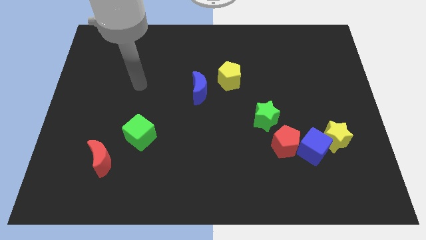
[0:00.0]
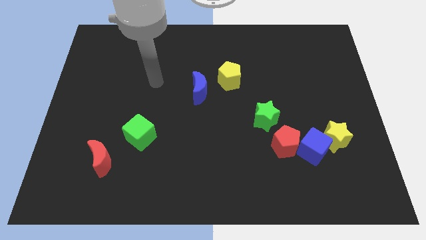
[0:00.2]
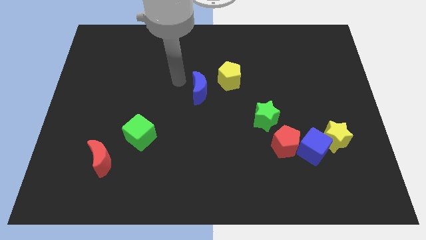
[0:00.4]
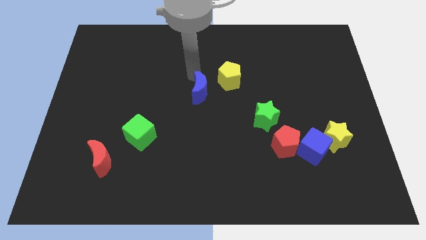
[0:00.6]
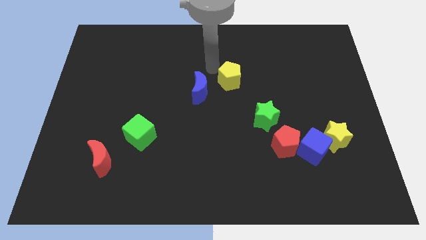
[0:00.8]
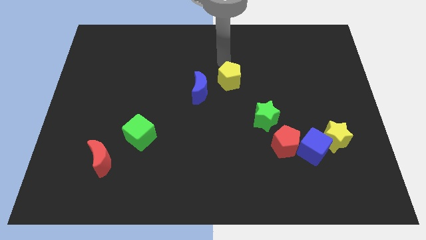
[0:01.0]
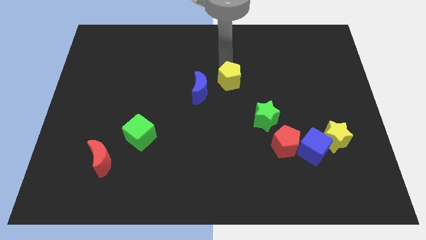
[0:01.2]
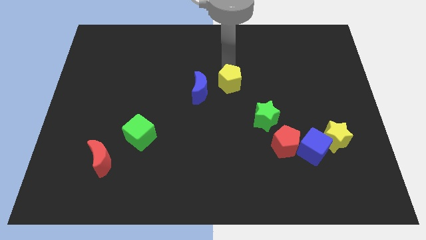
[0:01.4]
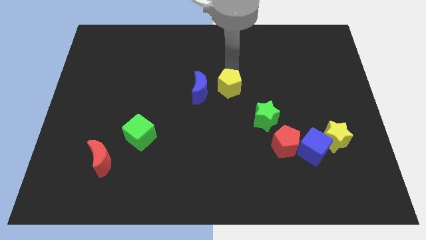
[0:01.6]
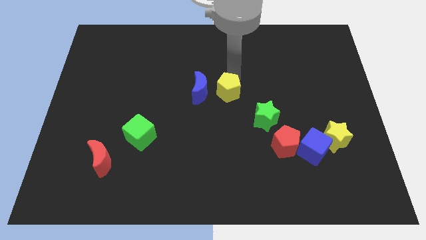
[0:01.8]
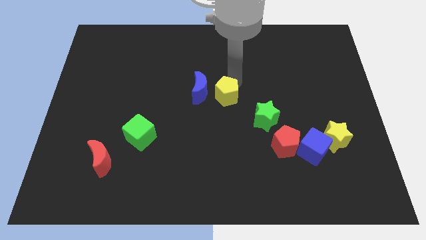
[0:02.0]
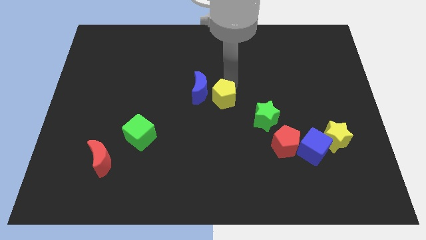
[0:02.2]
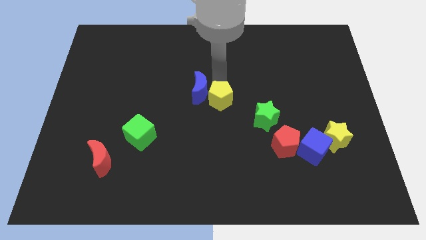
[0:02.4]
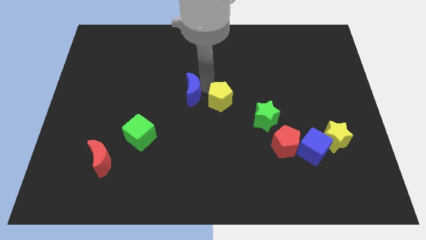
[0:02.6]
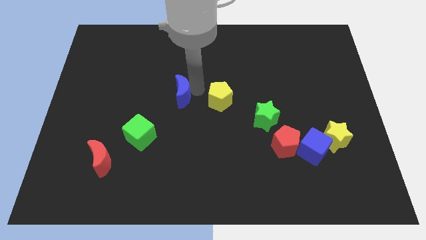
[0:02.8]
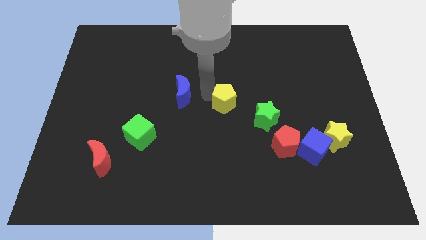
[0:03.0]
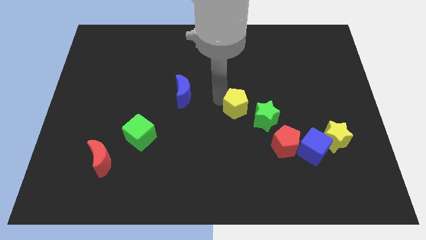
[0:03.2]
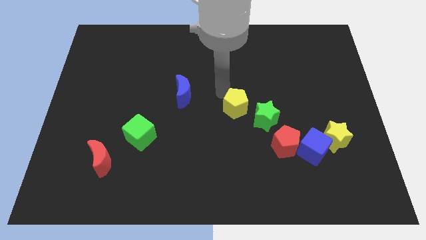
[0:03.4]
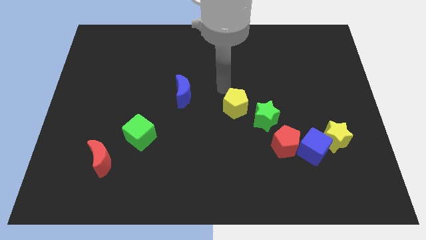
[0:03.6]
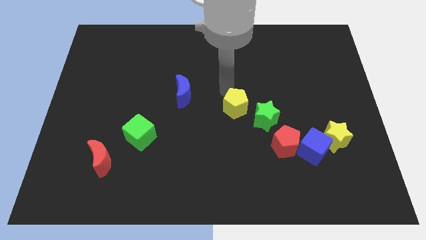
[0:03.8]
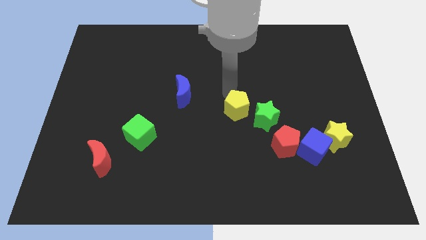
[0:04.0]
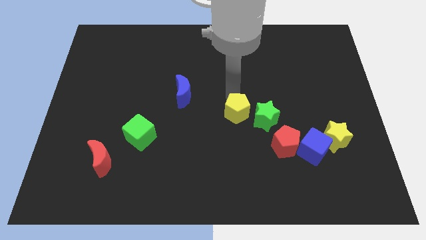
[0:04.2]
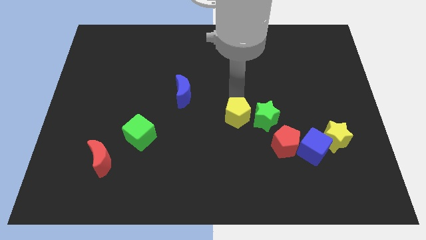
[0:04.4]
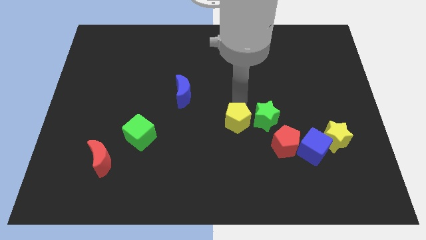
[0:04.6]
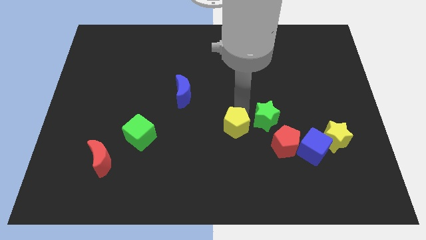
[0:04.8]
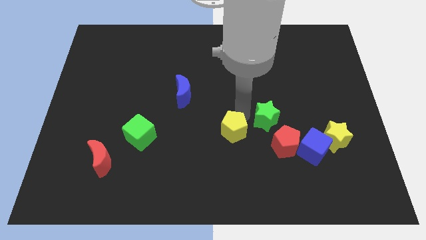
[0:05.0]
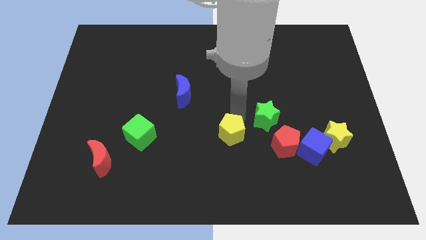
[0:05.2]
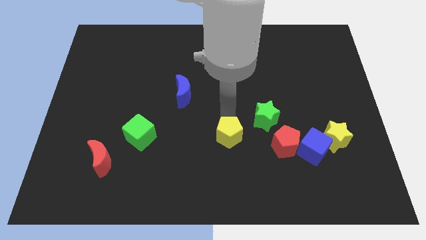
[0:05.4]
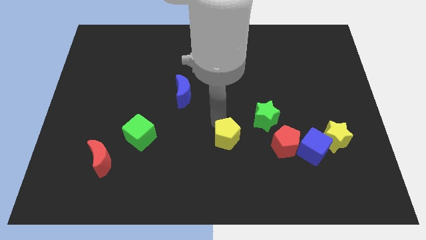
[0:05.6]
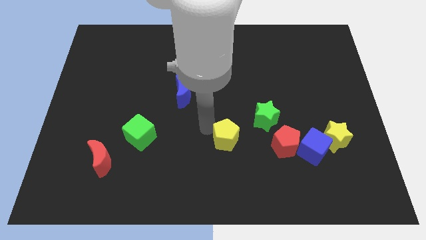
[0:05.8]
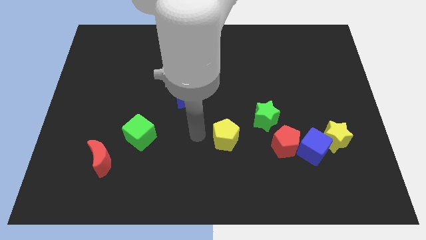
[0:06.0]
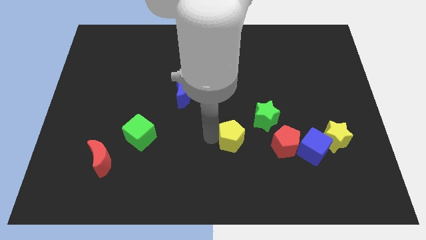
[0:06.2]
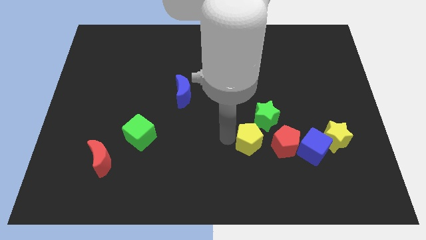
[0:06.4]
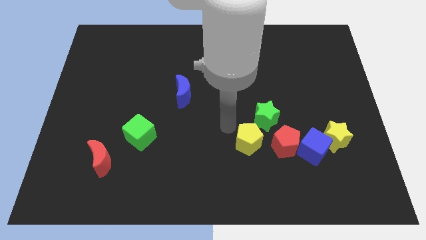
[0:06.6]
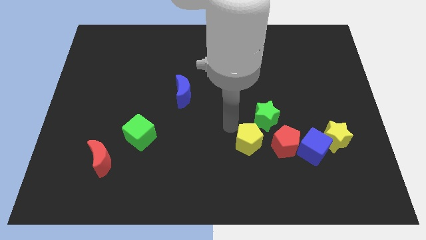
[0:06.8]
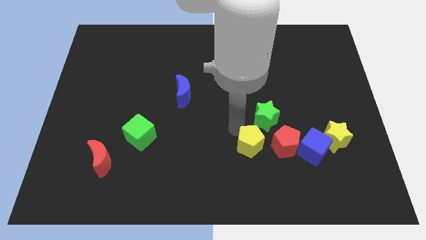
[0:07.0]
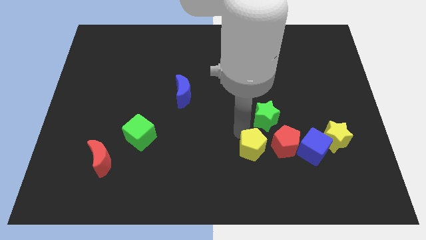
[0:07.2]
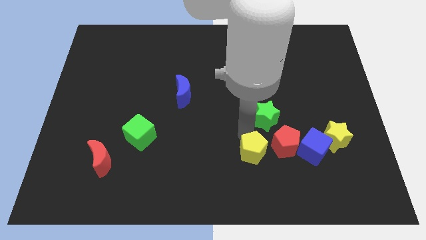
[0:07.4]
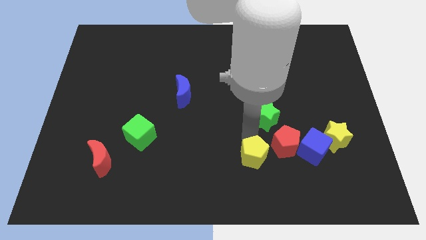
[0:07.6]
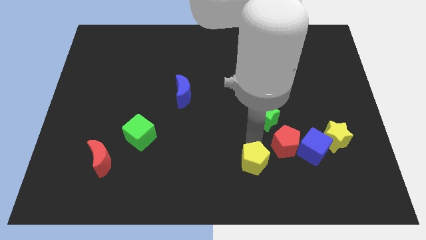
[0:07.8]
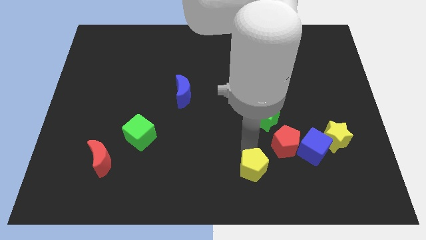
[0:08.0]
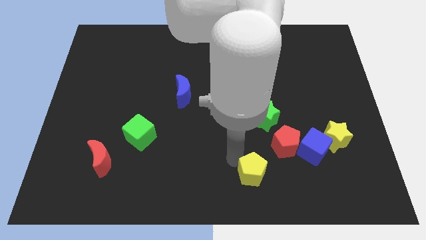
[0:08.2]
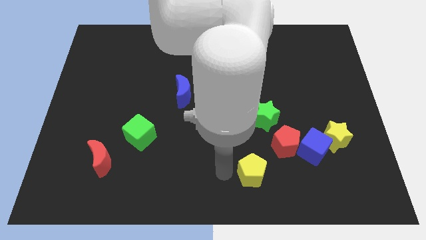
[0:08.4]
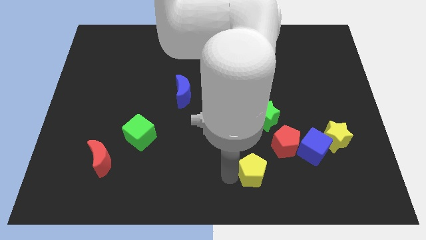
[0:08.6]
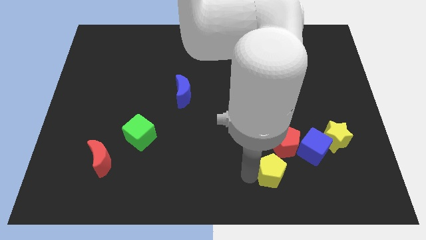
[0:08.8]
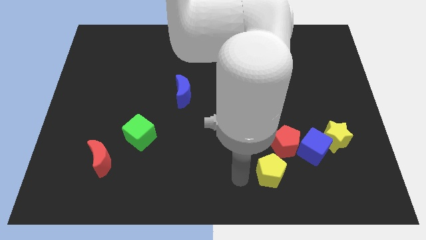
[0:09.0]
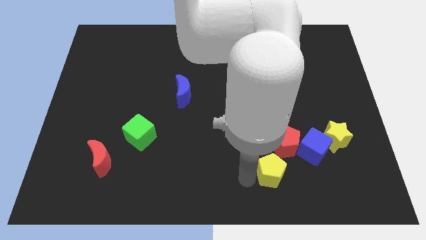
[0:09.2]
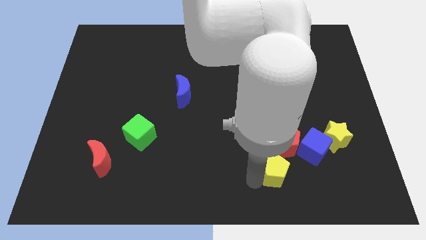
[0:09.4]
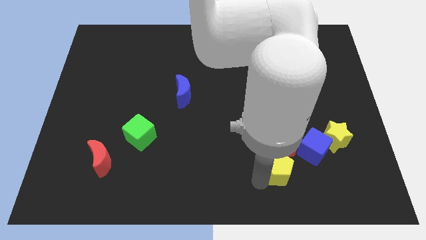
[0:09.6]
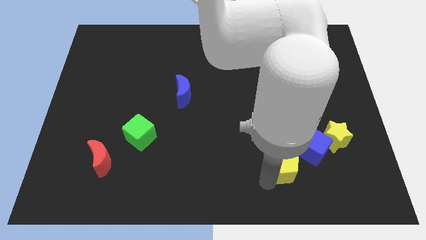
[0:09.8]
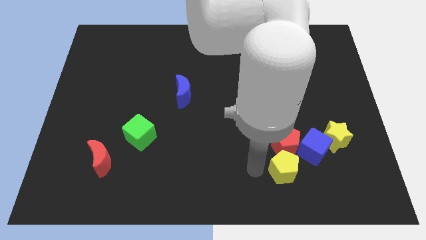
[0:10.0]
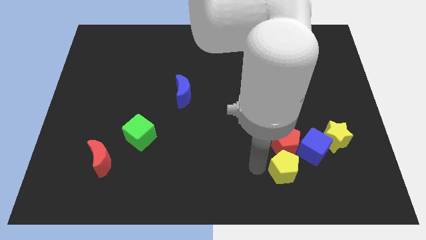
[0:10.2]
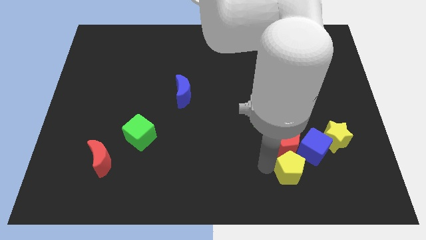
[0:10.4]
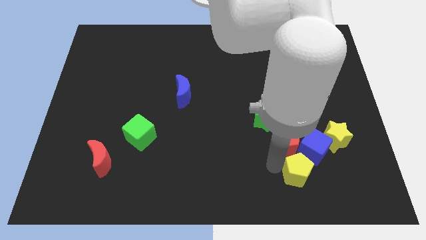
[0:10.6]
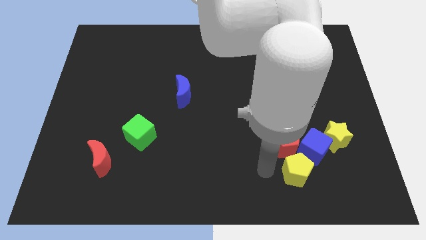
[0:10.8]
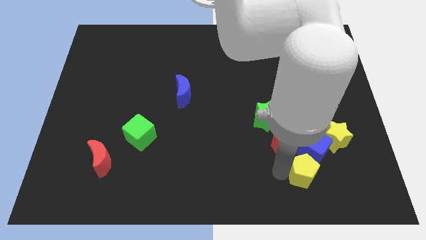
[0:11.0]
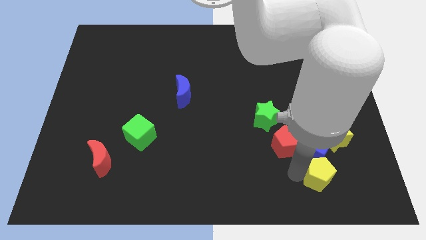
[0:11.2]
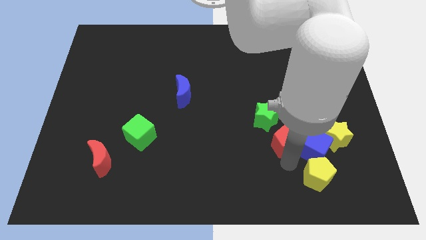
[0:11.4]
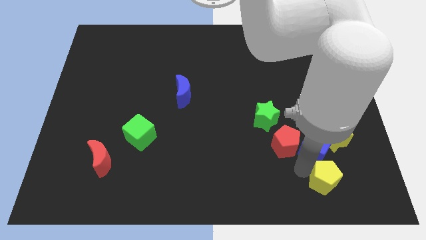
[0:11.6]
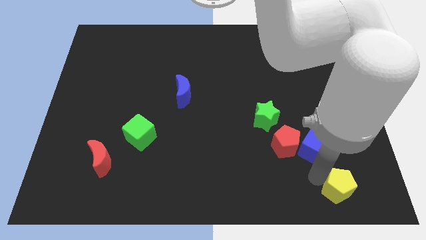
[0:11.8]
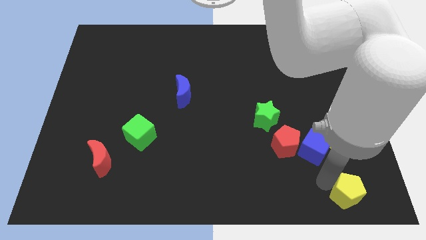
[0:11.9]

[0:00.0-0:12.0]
slide the yellow pentagon to the bottom right
